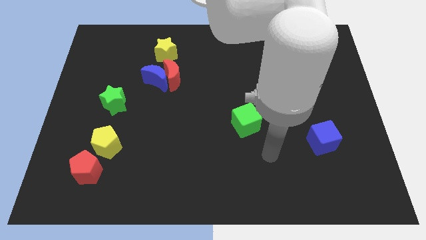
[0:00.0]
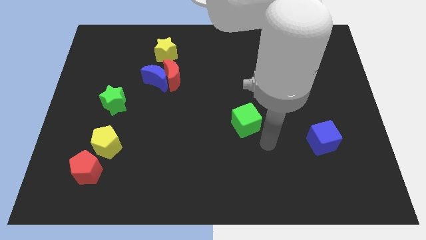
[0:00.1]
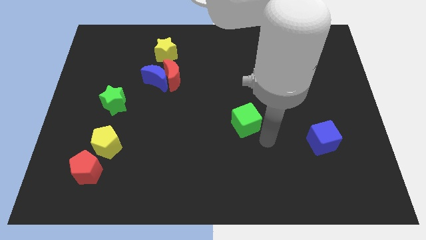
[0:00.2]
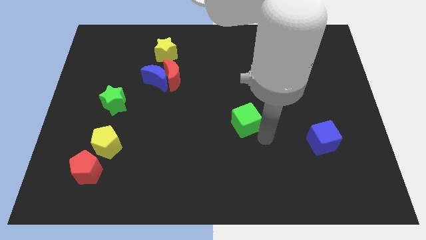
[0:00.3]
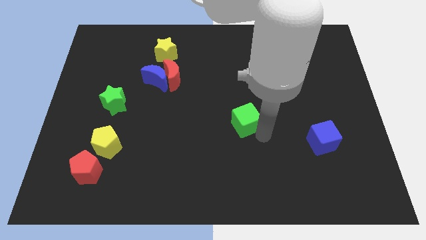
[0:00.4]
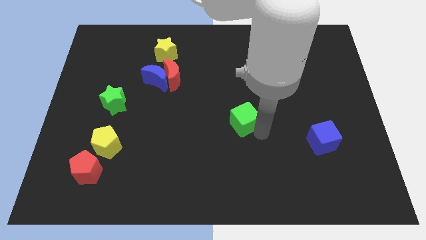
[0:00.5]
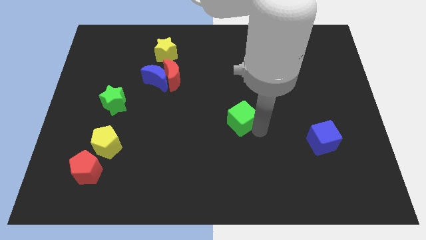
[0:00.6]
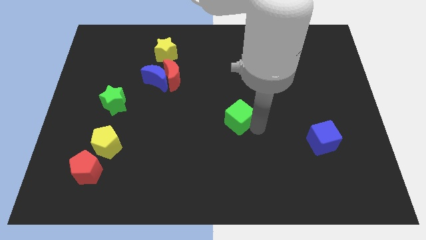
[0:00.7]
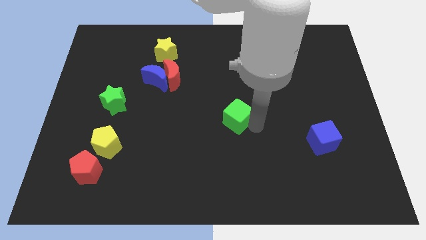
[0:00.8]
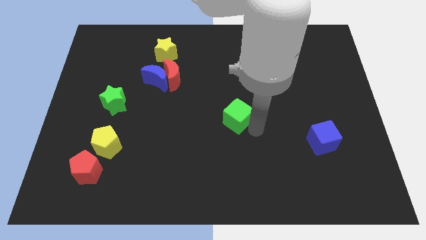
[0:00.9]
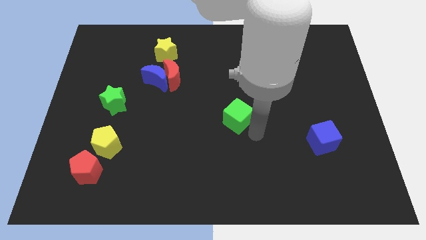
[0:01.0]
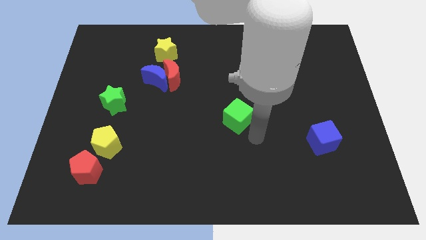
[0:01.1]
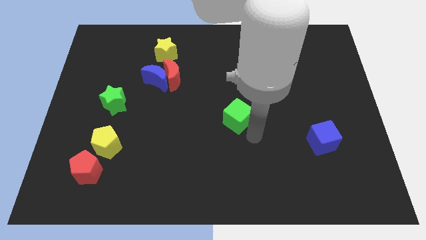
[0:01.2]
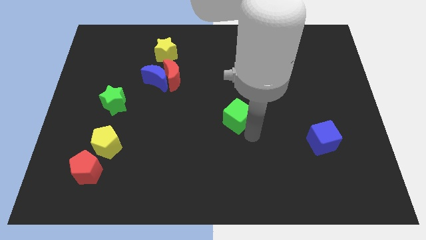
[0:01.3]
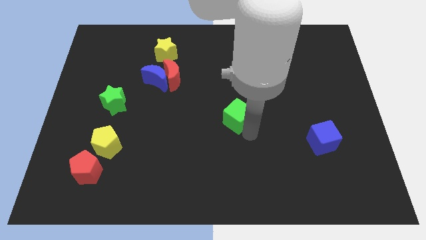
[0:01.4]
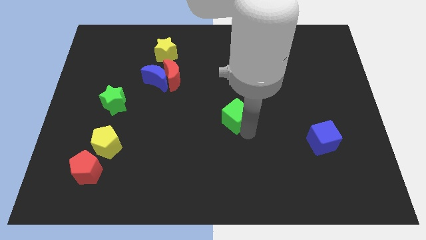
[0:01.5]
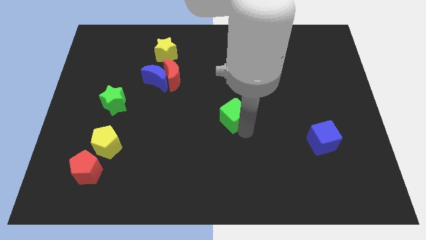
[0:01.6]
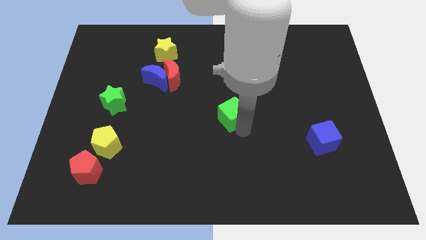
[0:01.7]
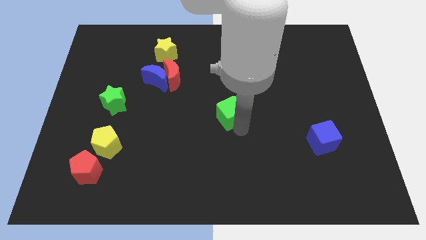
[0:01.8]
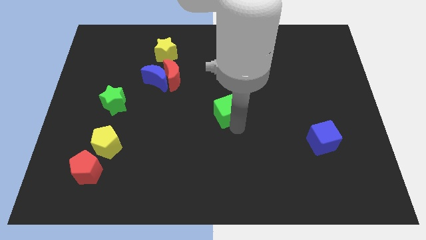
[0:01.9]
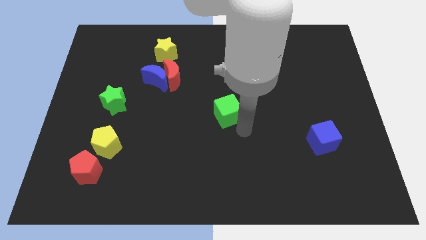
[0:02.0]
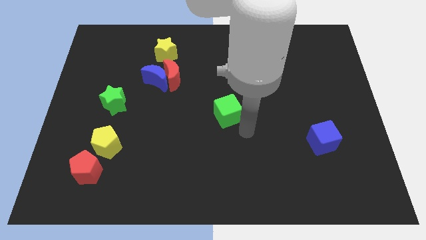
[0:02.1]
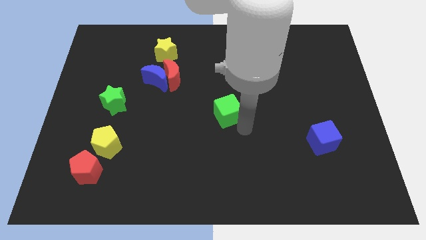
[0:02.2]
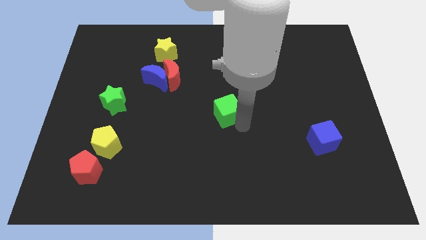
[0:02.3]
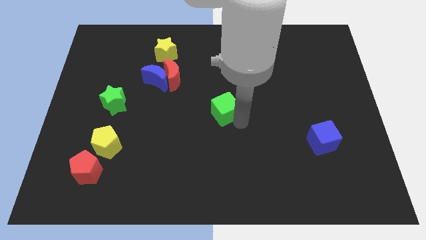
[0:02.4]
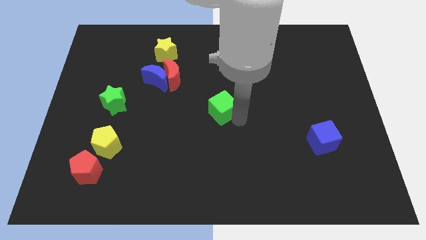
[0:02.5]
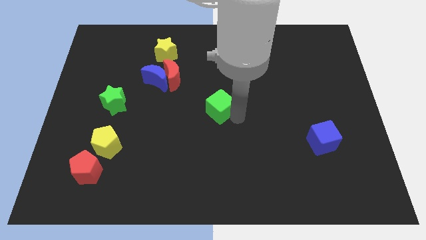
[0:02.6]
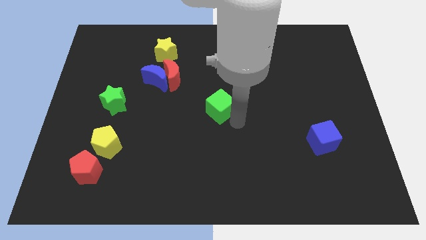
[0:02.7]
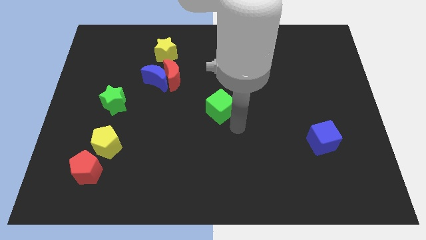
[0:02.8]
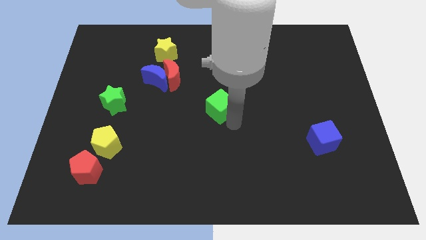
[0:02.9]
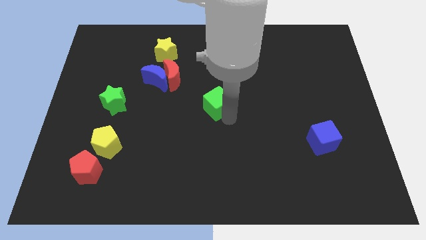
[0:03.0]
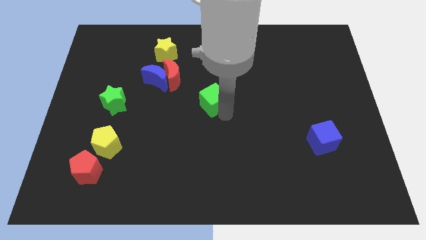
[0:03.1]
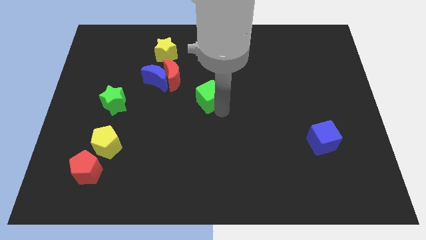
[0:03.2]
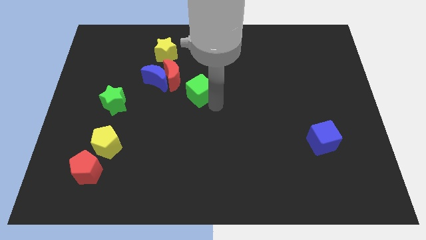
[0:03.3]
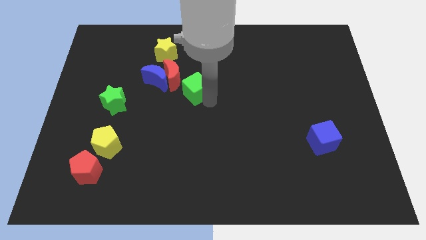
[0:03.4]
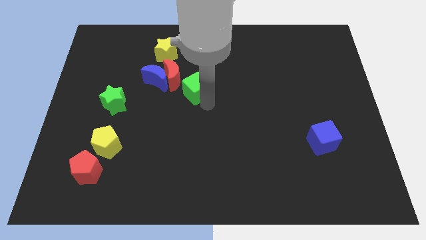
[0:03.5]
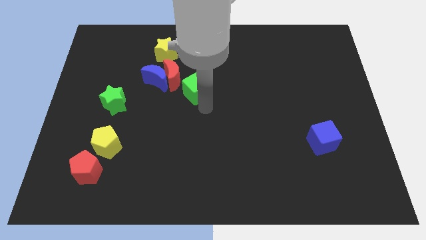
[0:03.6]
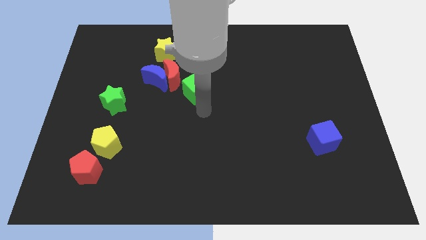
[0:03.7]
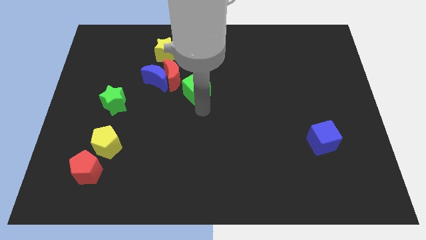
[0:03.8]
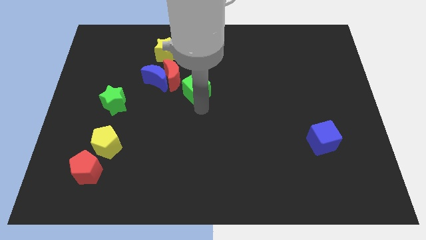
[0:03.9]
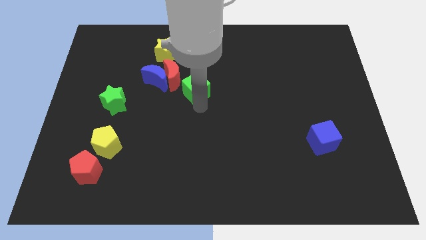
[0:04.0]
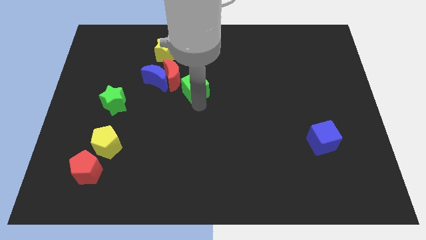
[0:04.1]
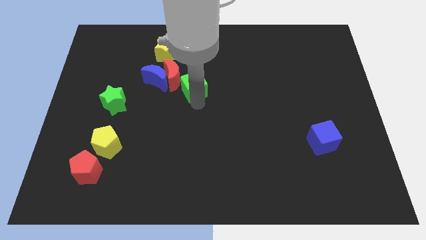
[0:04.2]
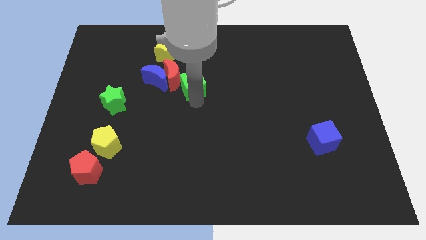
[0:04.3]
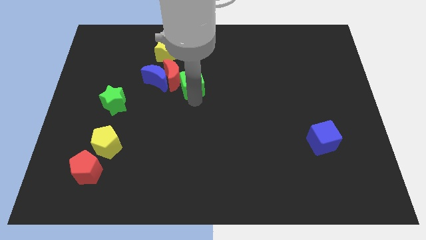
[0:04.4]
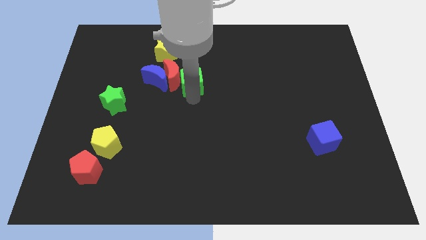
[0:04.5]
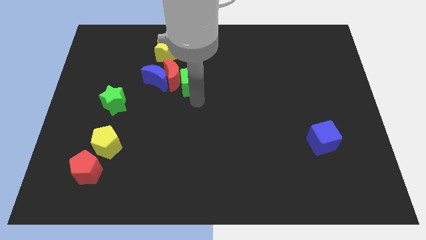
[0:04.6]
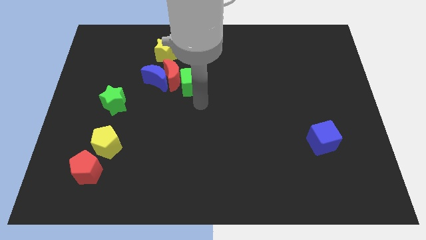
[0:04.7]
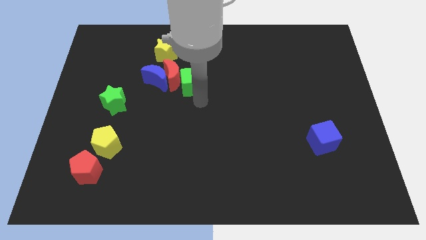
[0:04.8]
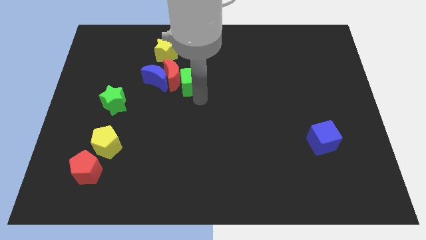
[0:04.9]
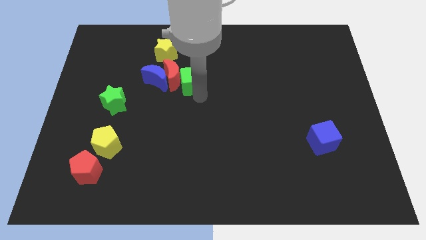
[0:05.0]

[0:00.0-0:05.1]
slide the green cube diagonally down and to the right of the yellow star

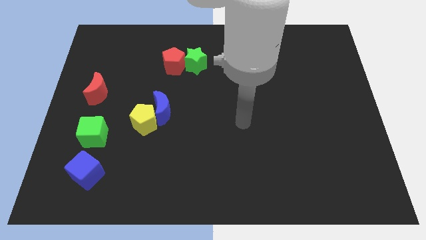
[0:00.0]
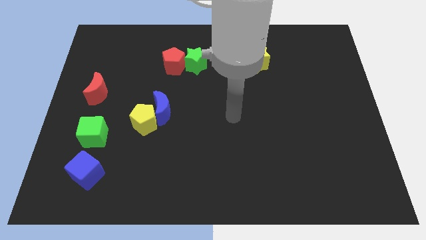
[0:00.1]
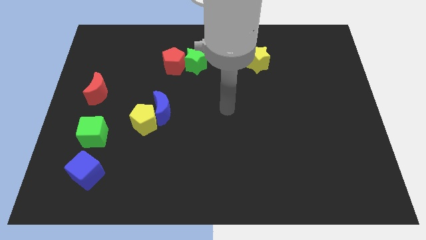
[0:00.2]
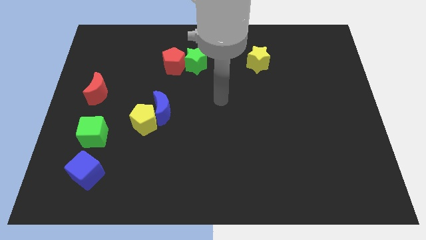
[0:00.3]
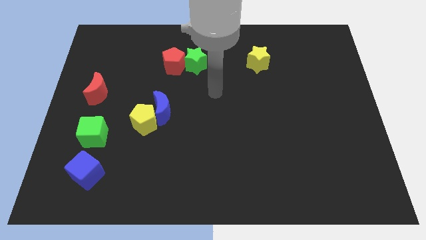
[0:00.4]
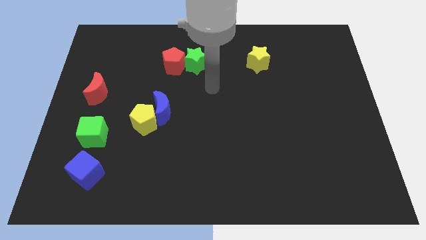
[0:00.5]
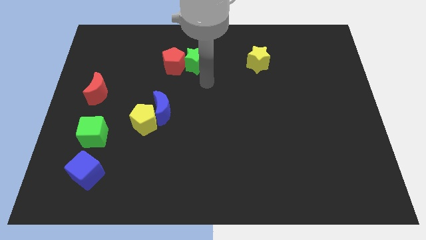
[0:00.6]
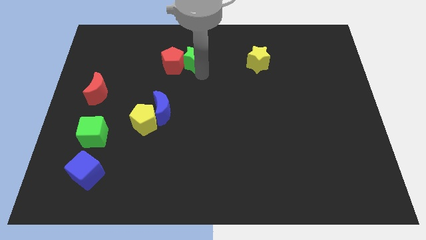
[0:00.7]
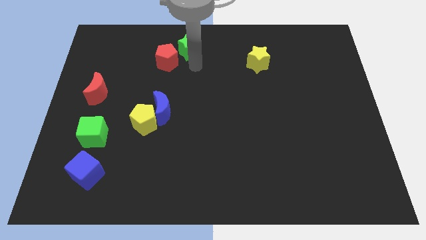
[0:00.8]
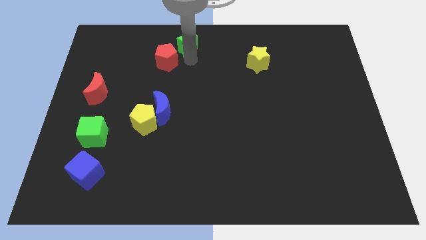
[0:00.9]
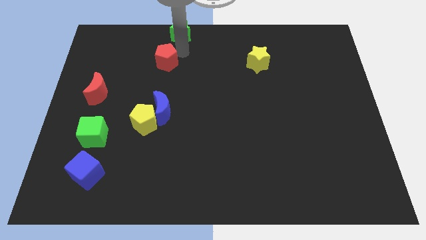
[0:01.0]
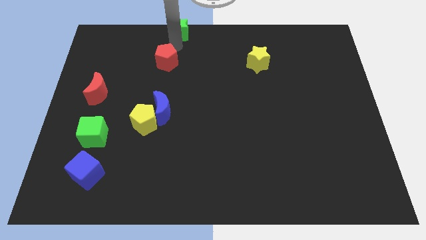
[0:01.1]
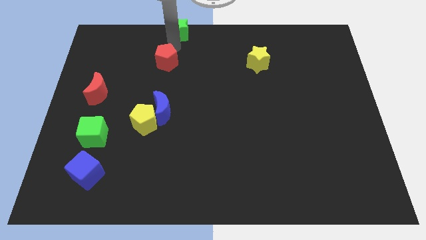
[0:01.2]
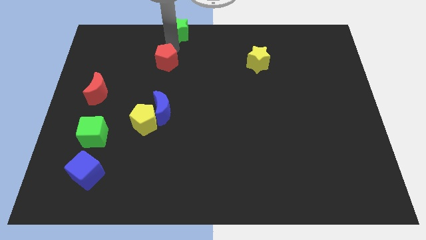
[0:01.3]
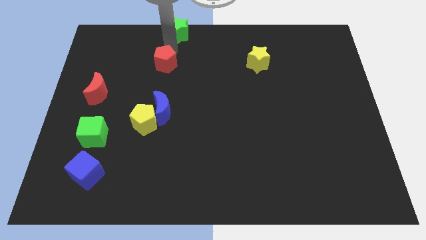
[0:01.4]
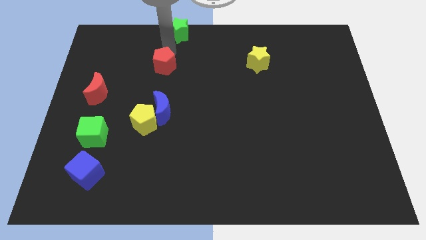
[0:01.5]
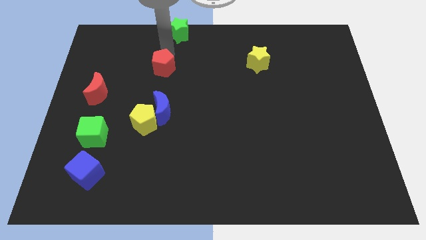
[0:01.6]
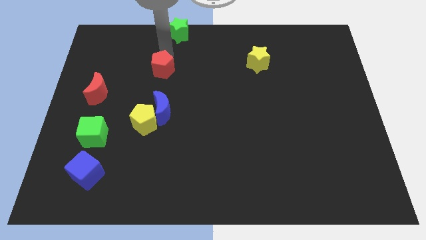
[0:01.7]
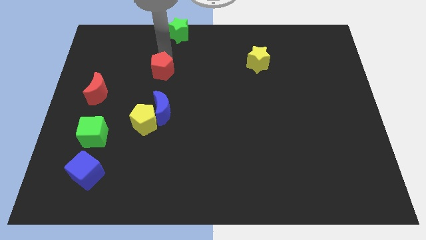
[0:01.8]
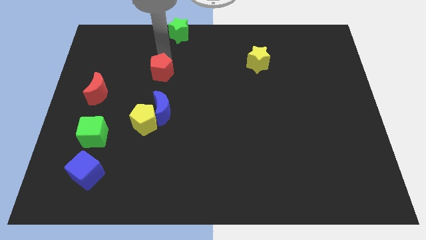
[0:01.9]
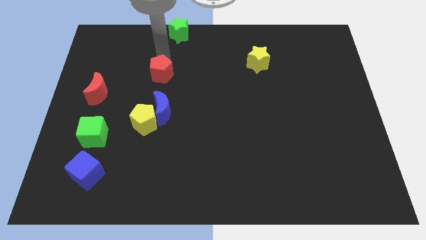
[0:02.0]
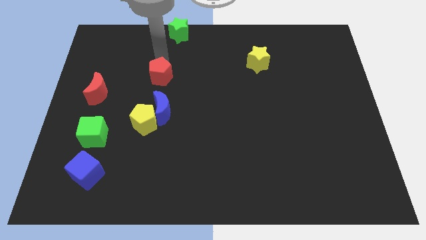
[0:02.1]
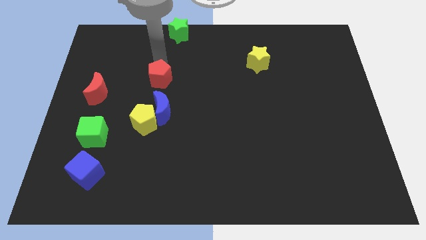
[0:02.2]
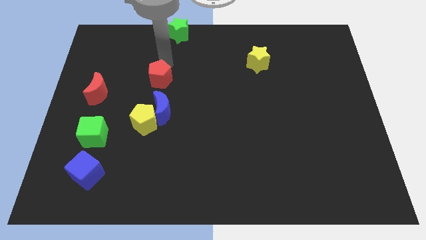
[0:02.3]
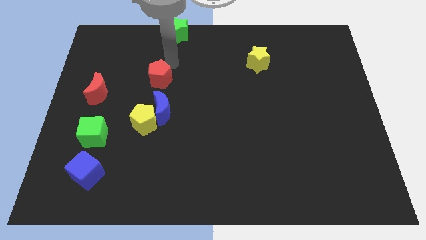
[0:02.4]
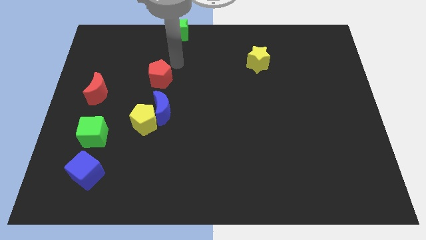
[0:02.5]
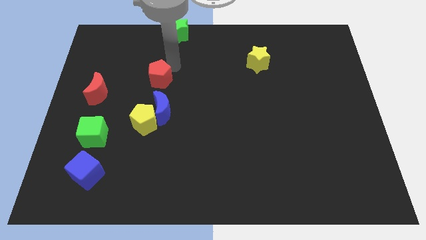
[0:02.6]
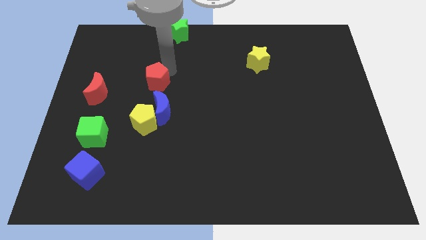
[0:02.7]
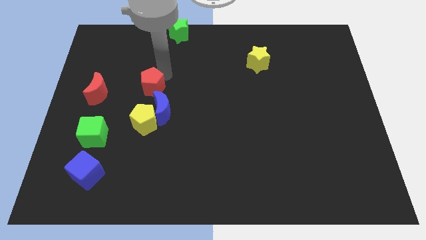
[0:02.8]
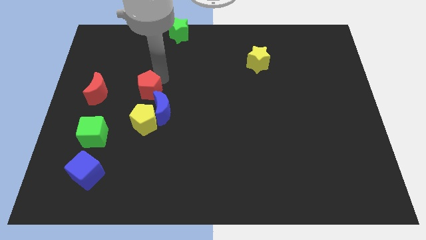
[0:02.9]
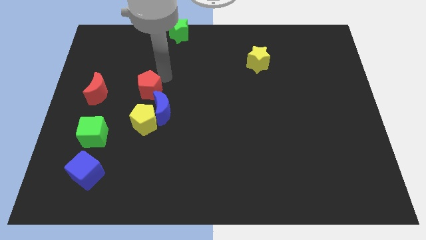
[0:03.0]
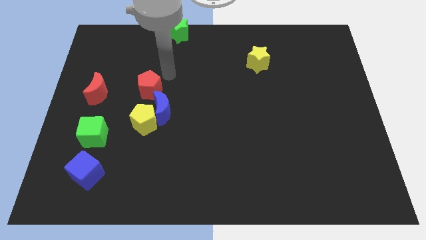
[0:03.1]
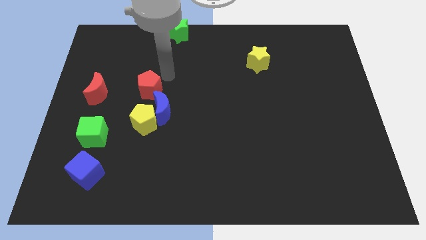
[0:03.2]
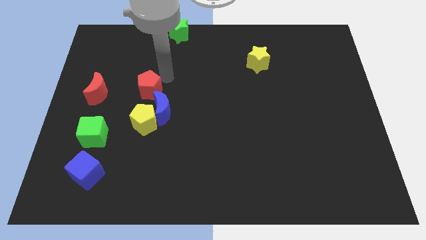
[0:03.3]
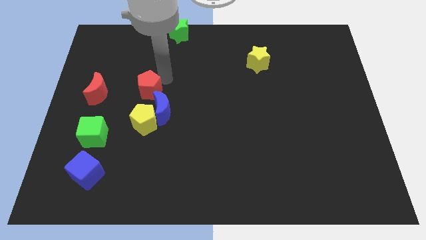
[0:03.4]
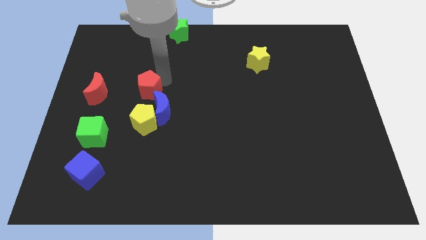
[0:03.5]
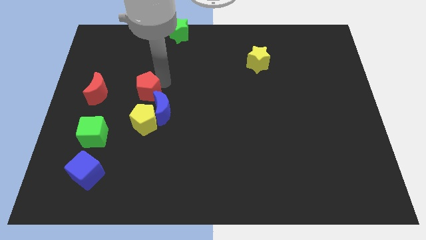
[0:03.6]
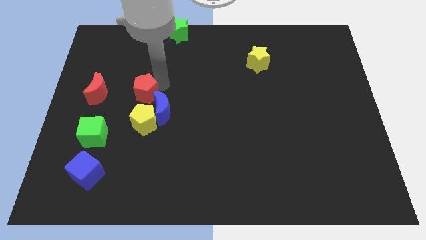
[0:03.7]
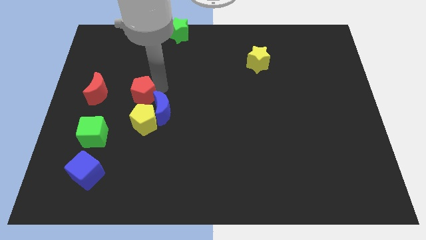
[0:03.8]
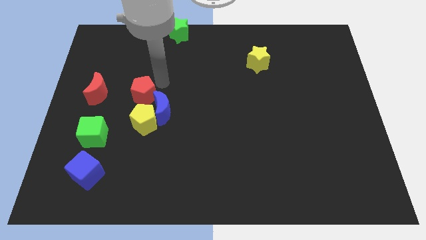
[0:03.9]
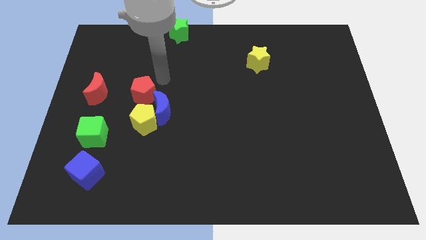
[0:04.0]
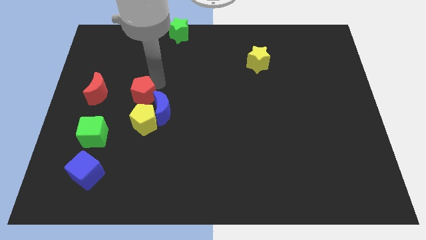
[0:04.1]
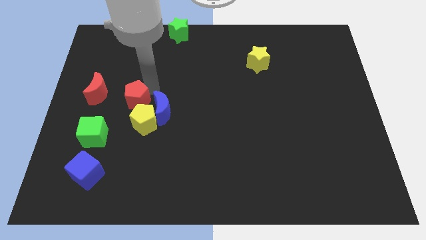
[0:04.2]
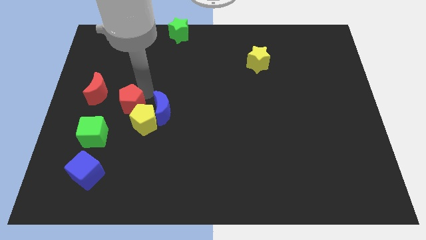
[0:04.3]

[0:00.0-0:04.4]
move the red pentagon to the top right side of the green cube
